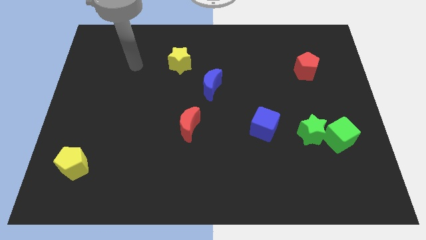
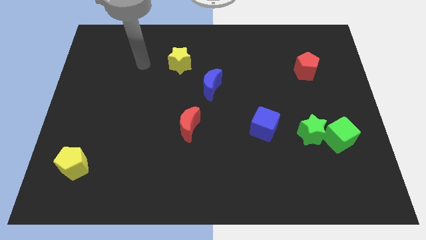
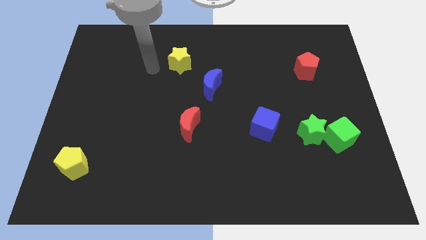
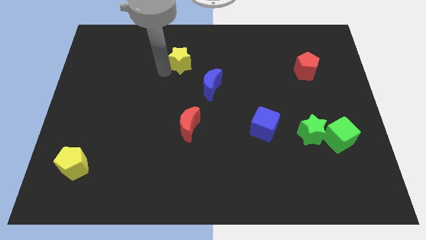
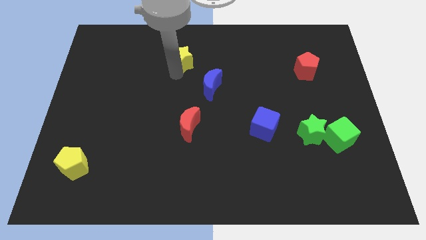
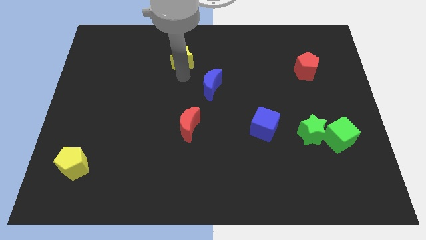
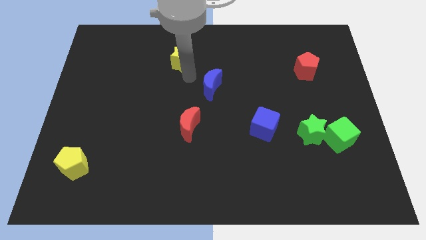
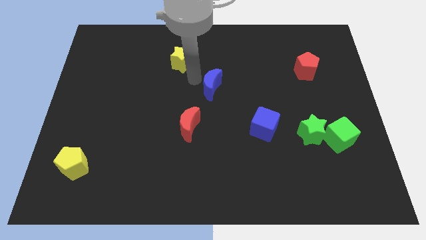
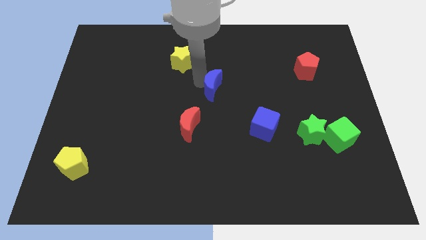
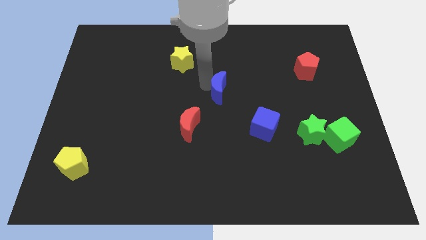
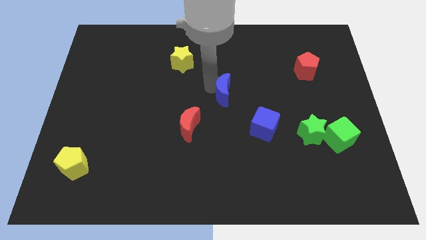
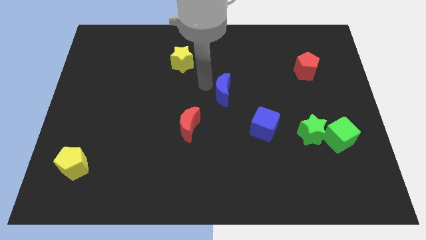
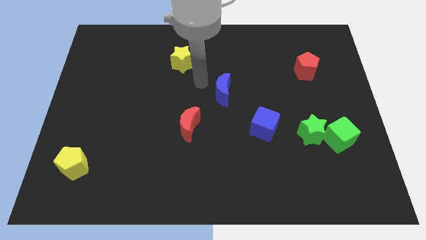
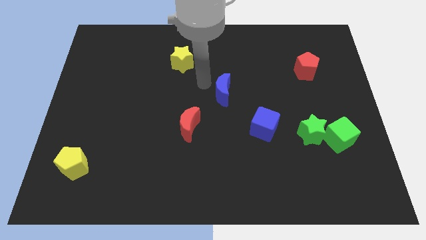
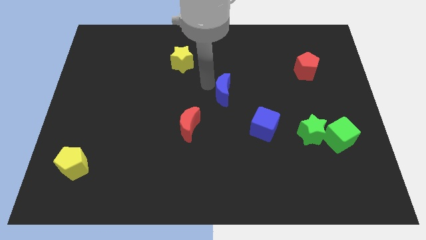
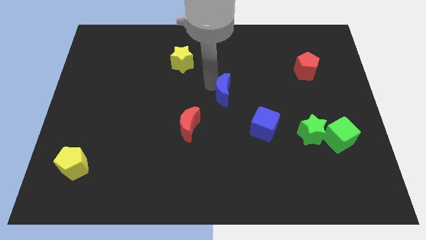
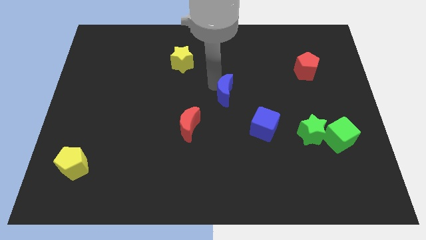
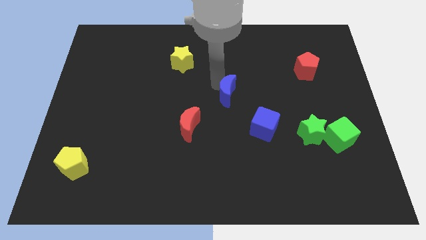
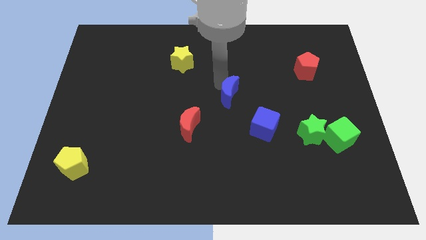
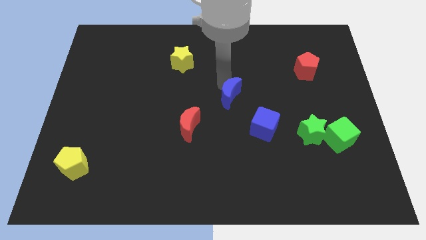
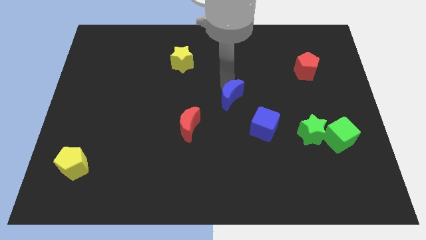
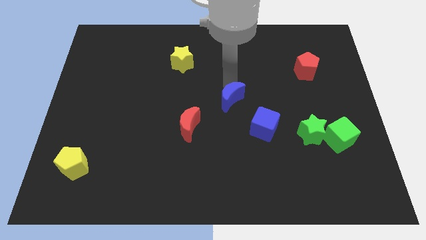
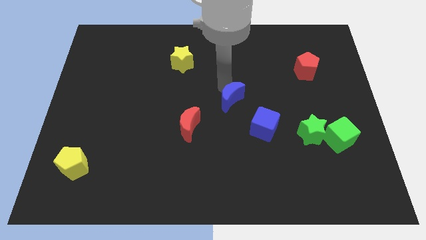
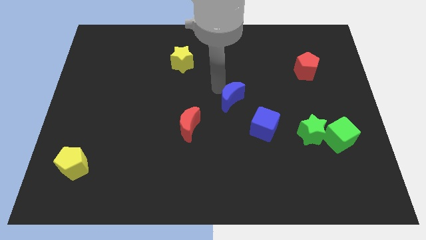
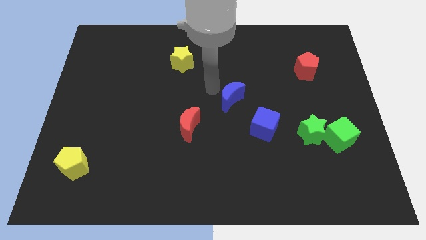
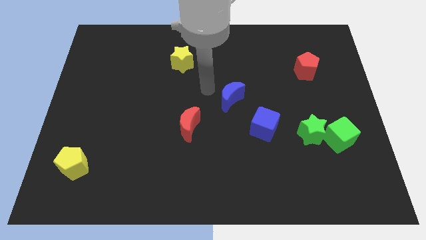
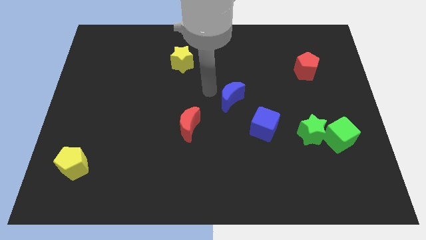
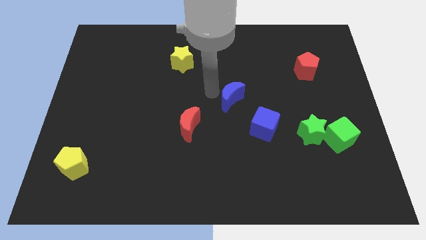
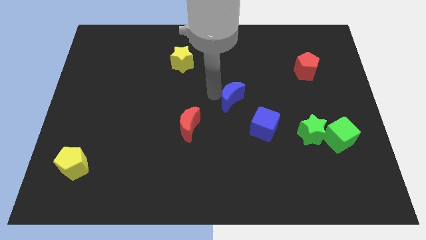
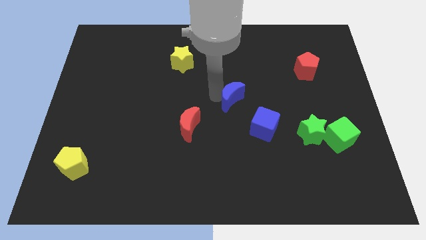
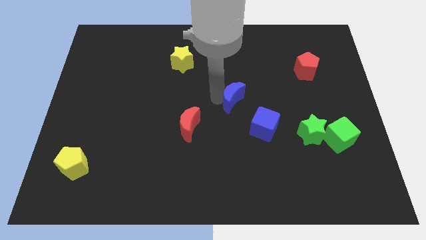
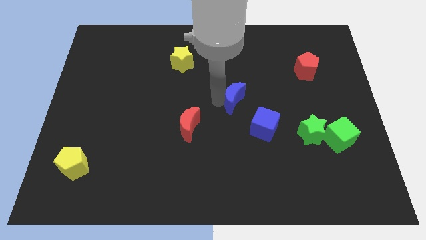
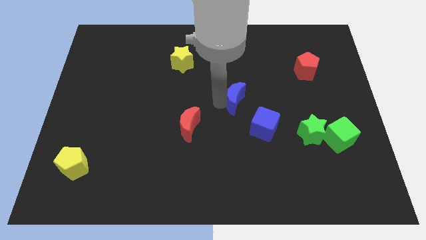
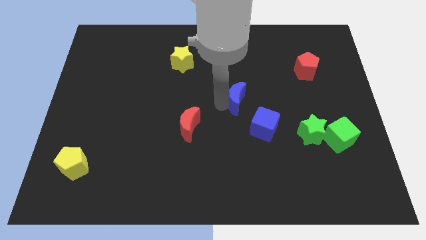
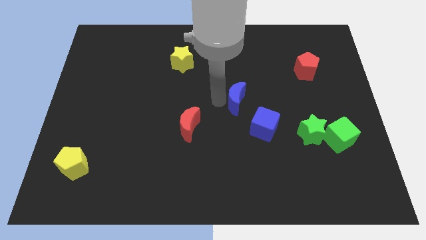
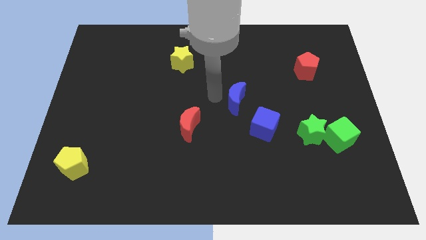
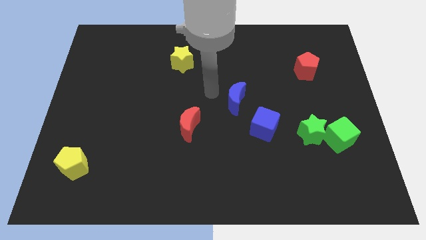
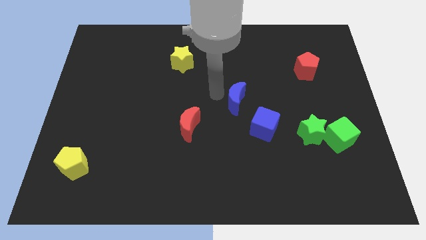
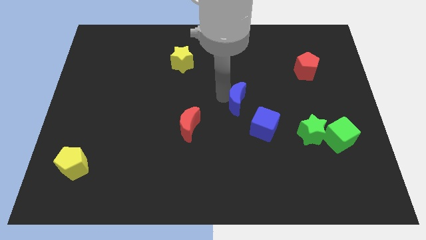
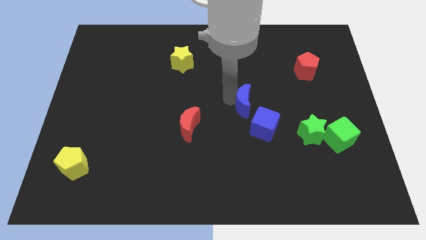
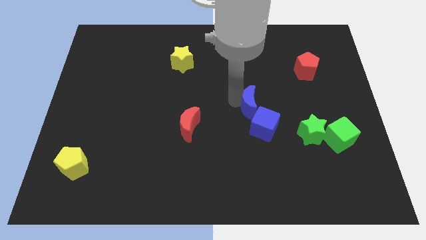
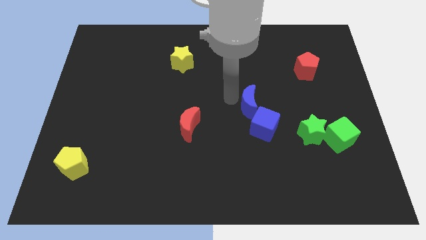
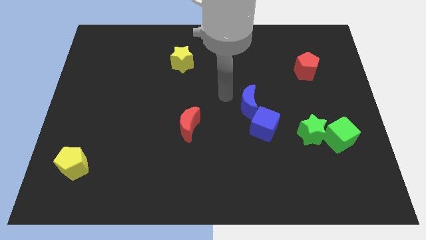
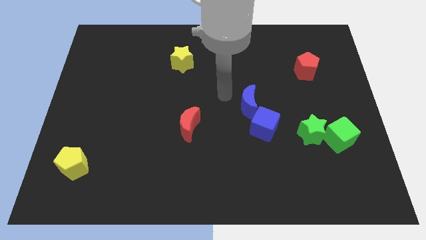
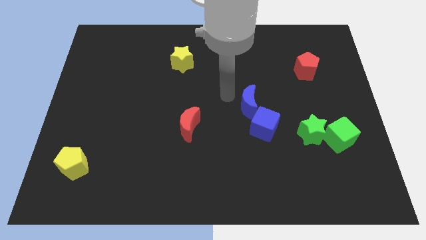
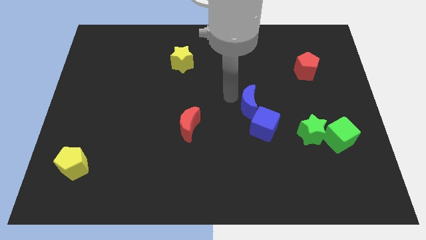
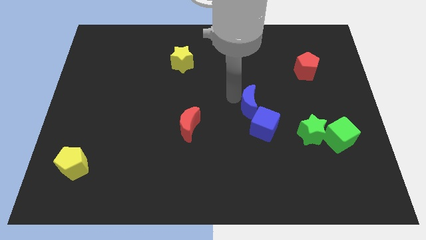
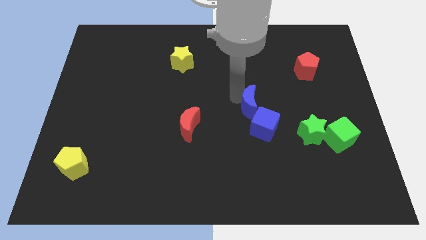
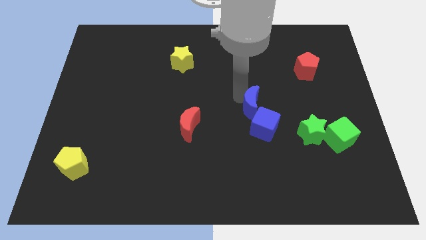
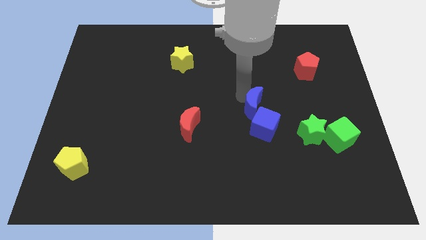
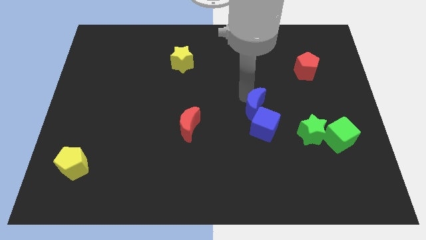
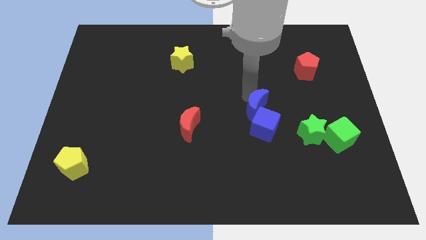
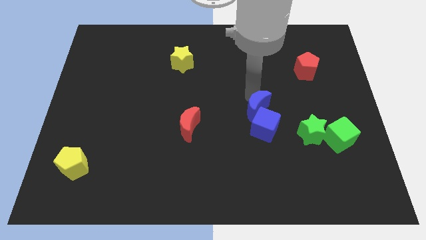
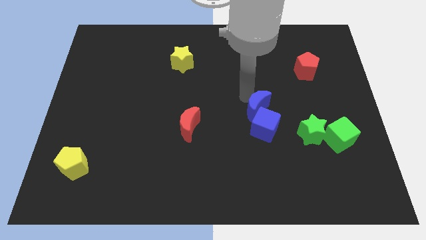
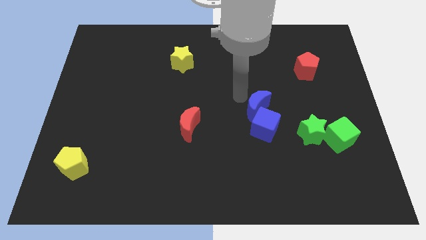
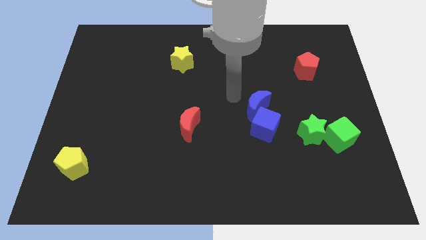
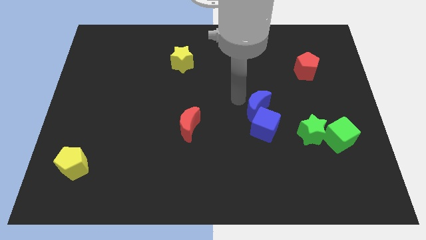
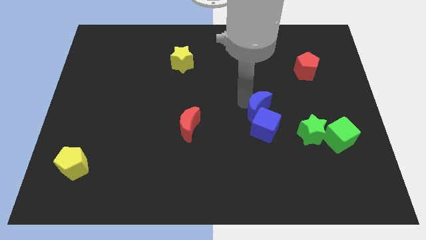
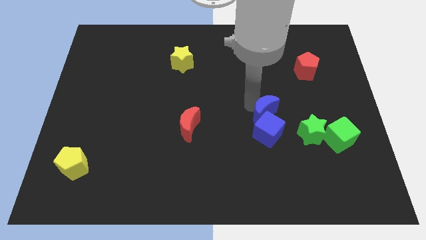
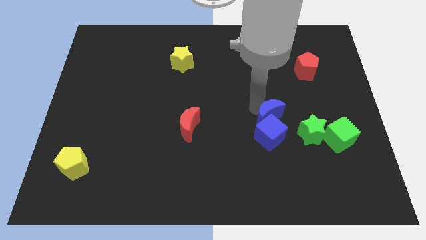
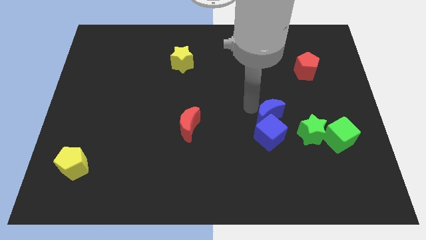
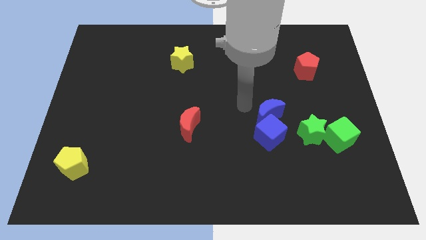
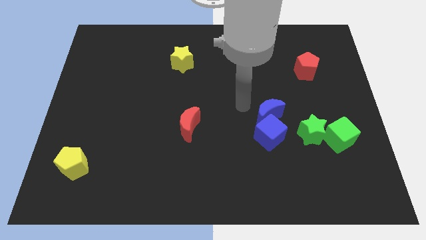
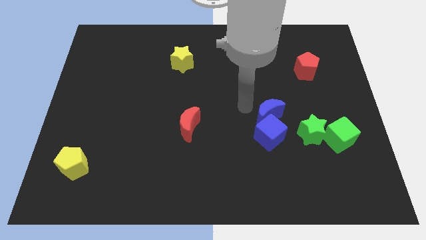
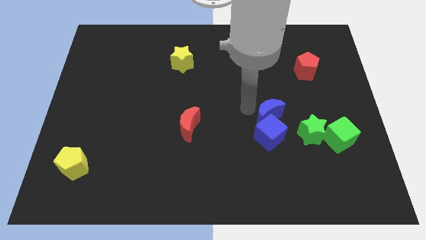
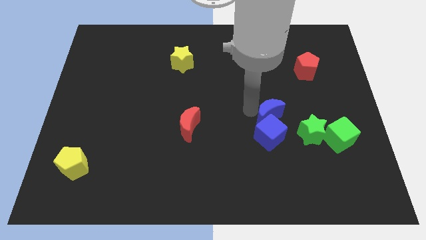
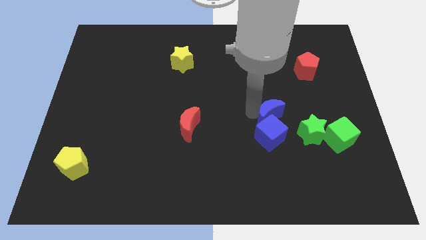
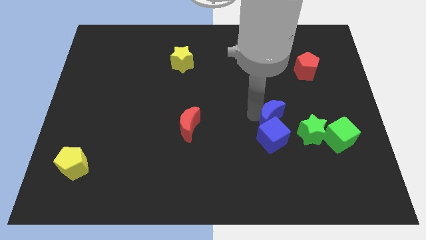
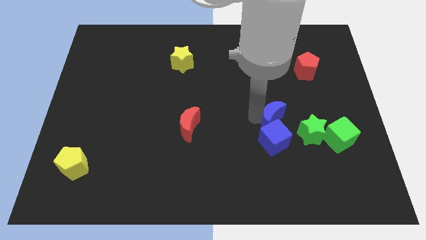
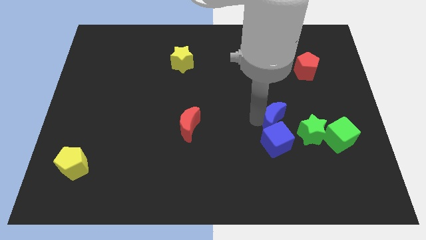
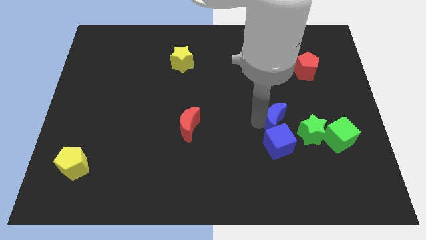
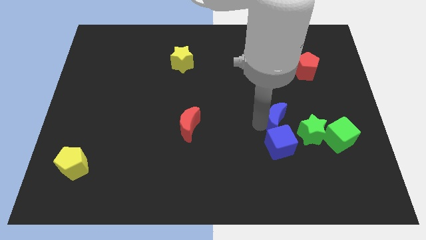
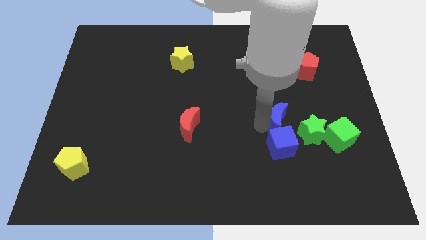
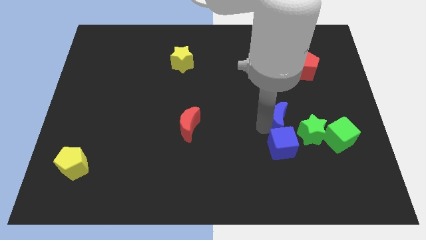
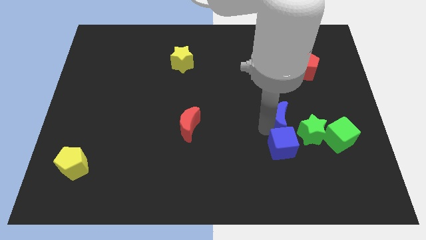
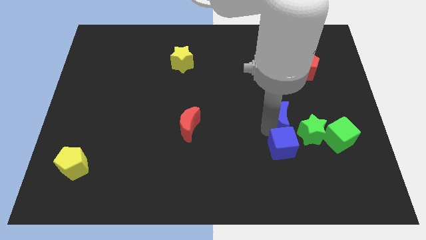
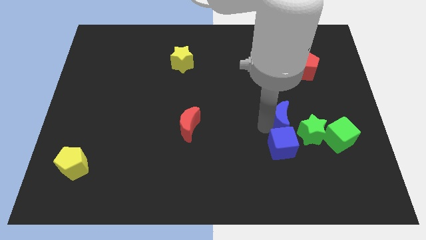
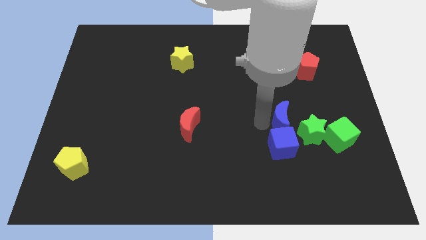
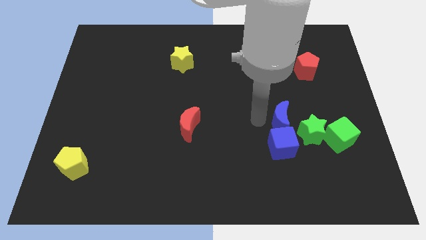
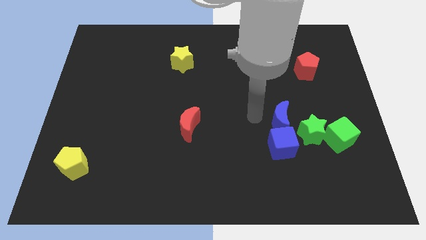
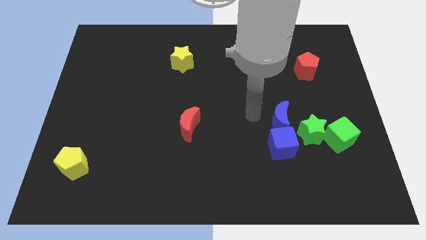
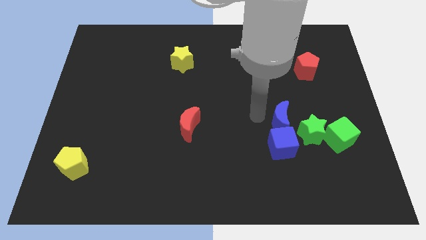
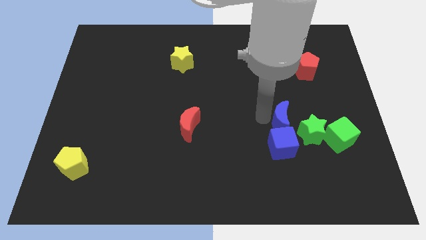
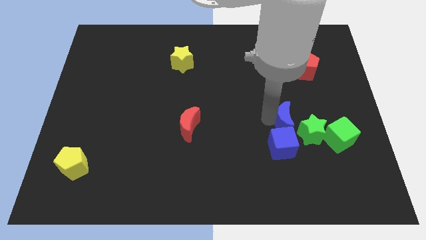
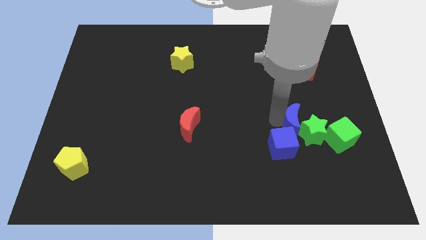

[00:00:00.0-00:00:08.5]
push the blue moon close to the green star
